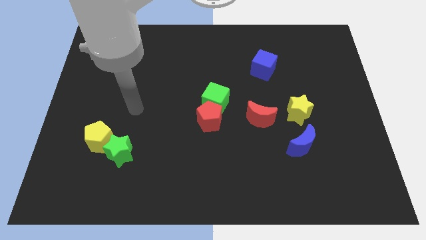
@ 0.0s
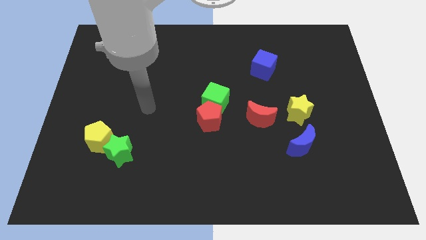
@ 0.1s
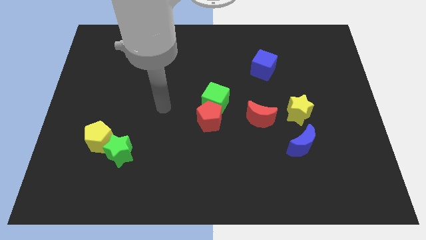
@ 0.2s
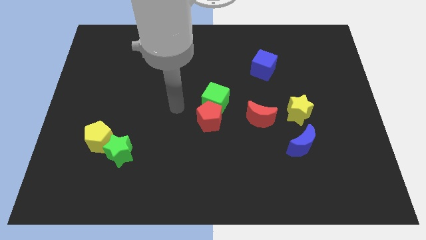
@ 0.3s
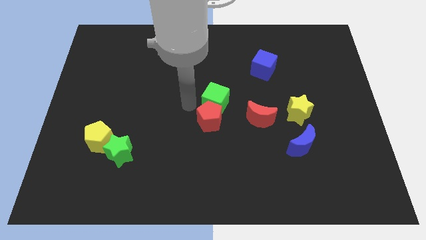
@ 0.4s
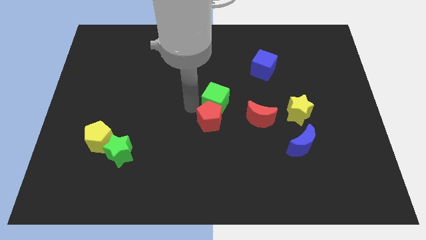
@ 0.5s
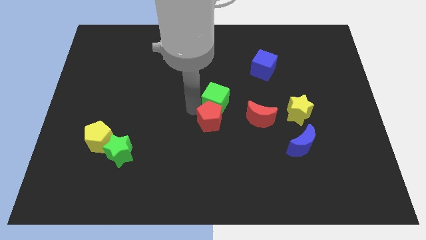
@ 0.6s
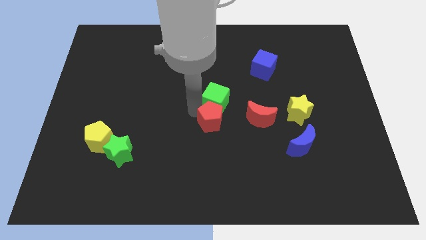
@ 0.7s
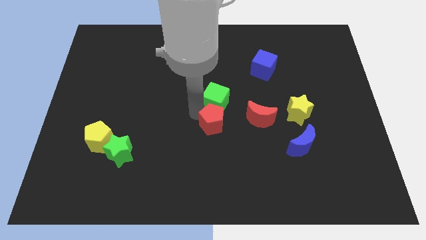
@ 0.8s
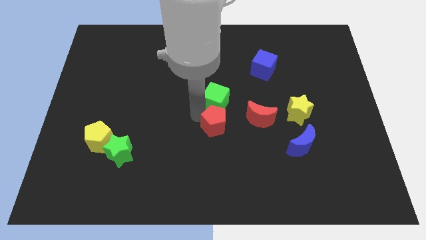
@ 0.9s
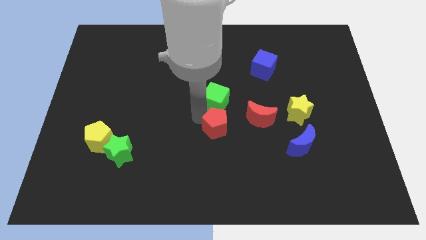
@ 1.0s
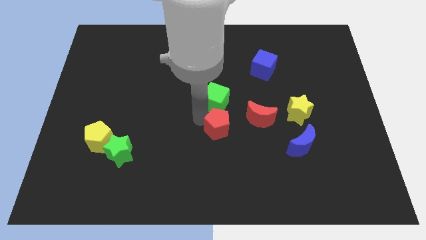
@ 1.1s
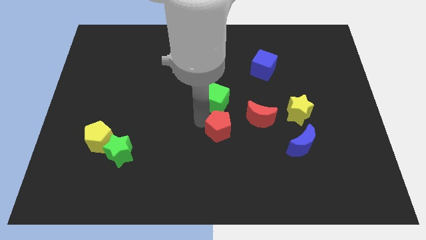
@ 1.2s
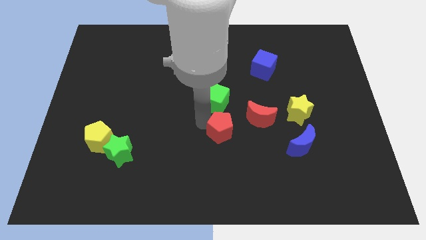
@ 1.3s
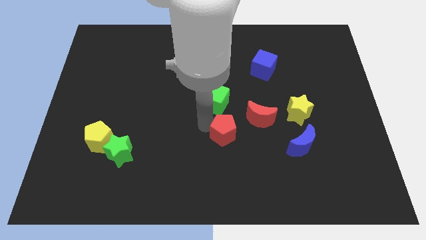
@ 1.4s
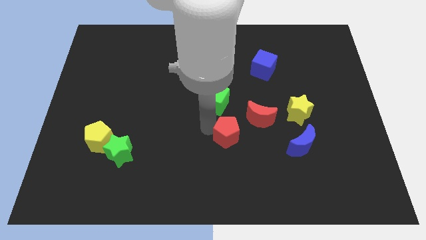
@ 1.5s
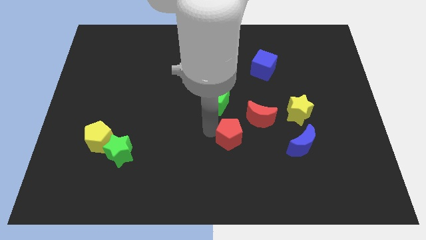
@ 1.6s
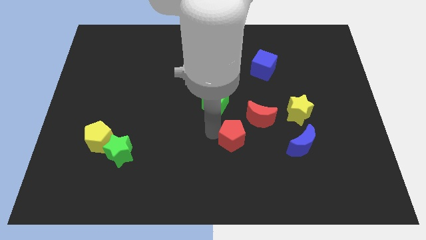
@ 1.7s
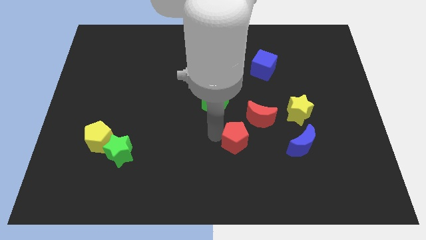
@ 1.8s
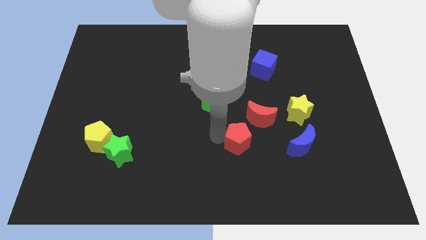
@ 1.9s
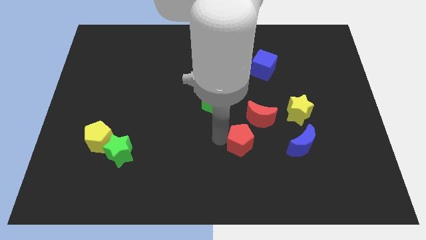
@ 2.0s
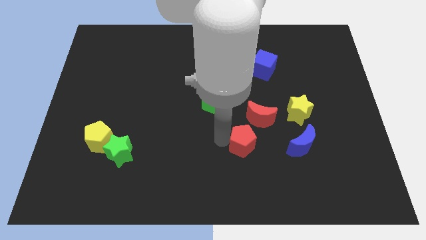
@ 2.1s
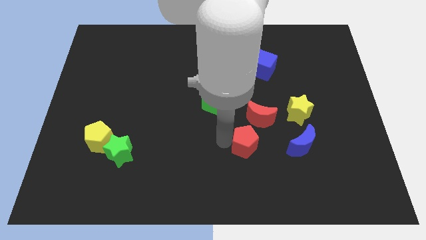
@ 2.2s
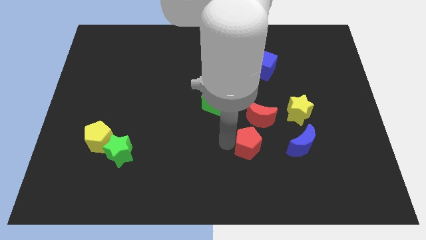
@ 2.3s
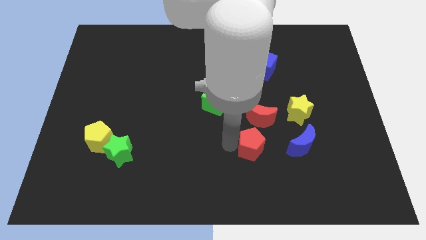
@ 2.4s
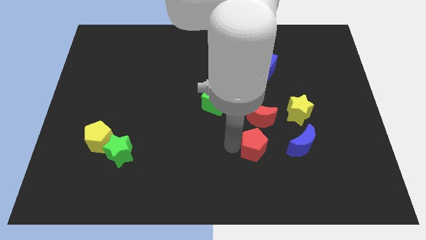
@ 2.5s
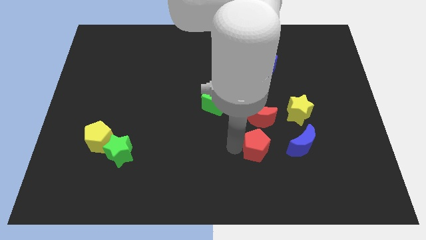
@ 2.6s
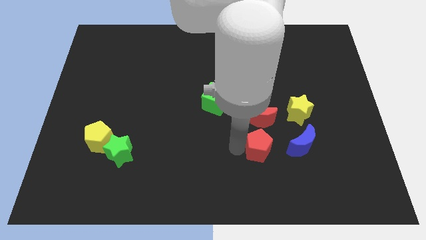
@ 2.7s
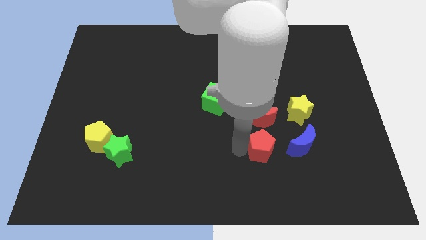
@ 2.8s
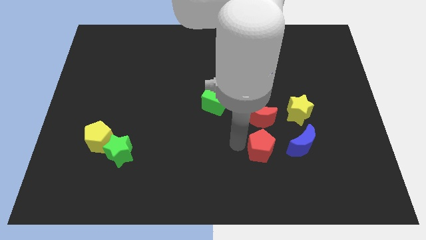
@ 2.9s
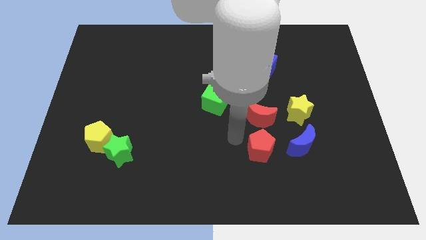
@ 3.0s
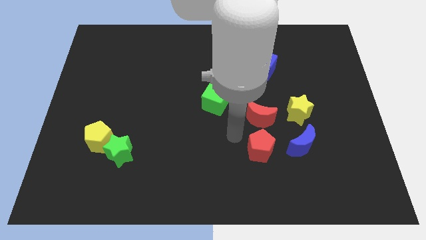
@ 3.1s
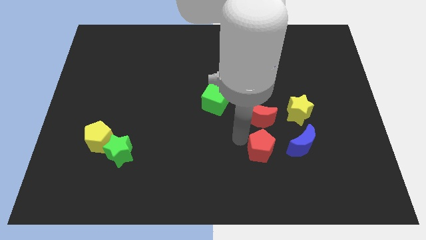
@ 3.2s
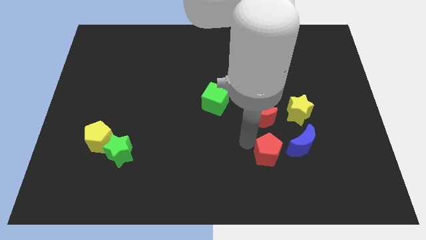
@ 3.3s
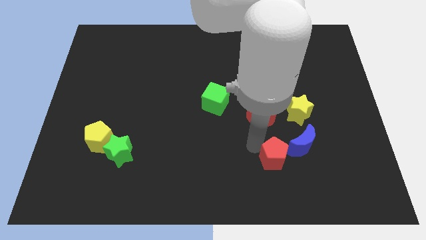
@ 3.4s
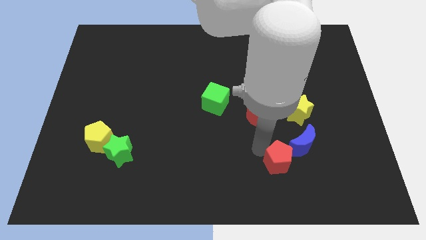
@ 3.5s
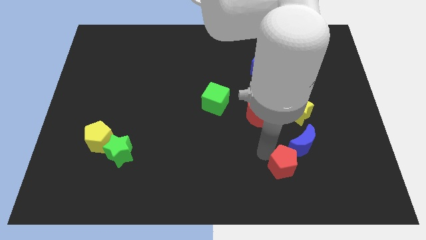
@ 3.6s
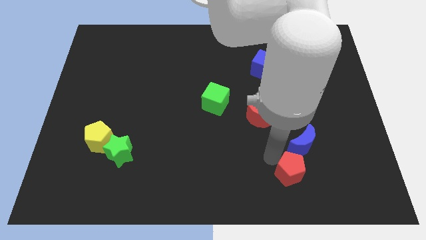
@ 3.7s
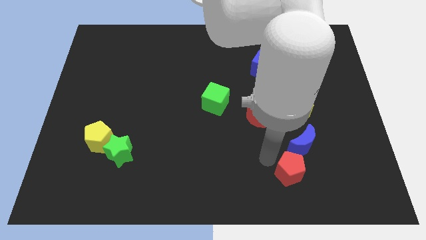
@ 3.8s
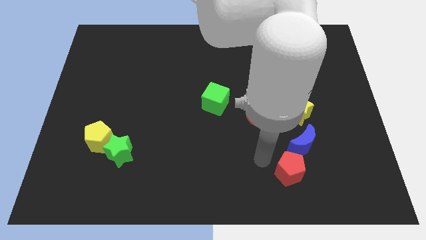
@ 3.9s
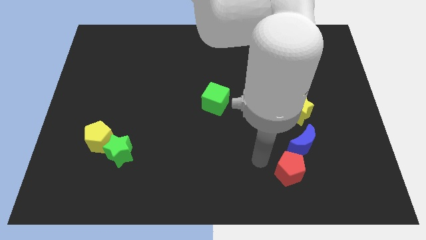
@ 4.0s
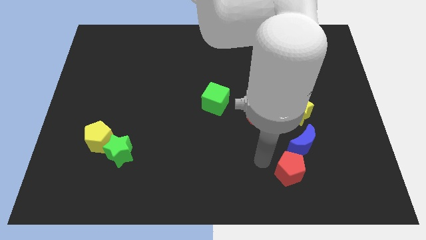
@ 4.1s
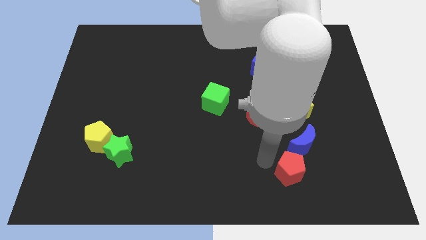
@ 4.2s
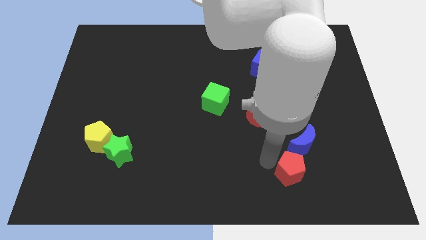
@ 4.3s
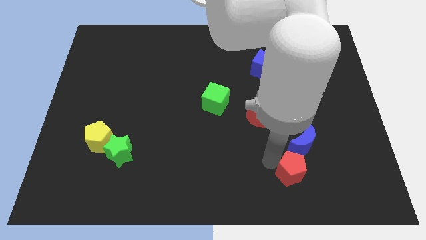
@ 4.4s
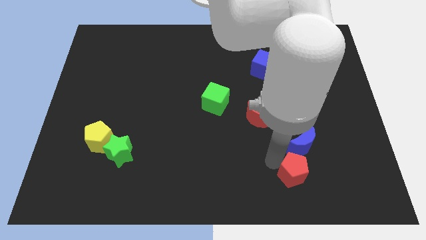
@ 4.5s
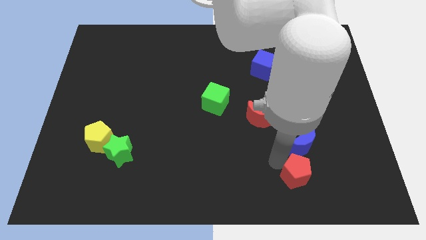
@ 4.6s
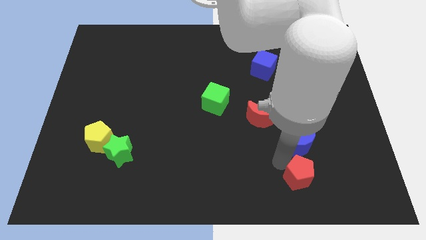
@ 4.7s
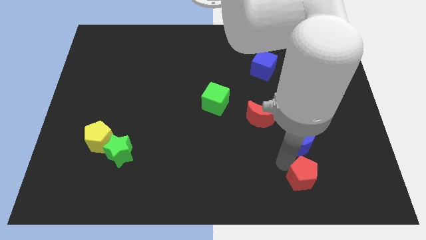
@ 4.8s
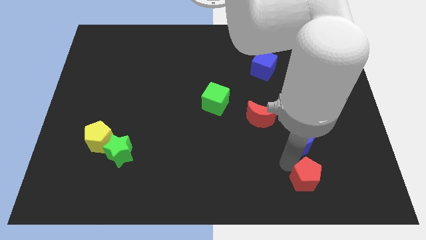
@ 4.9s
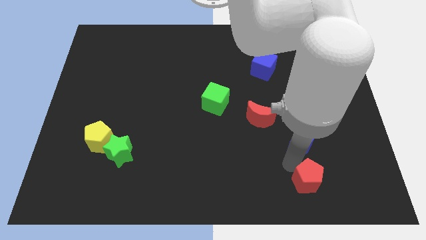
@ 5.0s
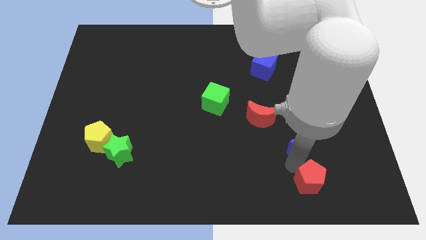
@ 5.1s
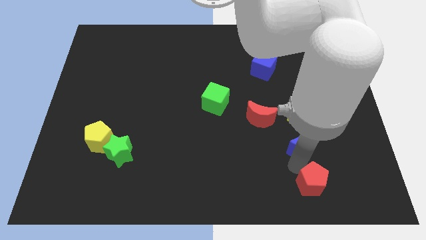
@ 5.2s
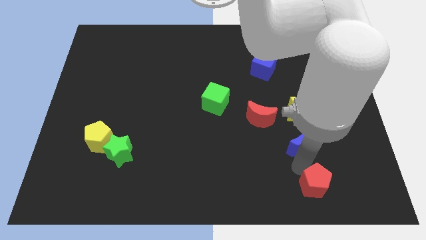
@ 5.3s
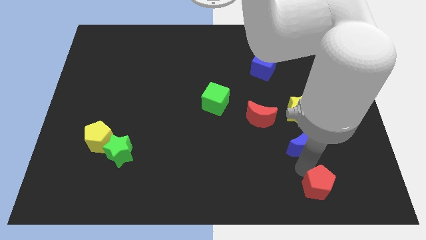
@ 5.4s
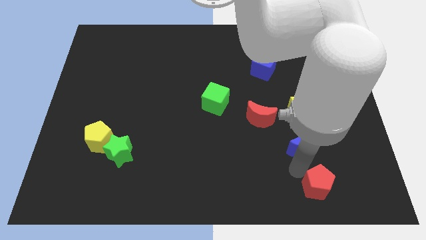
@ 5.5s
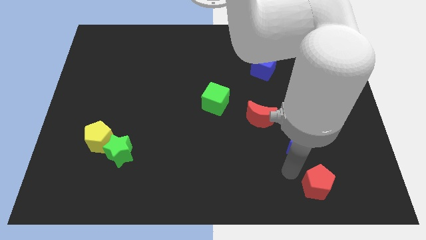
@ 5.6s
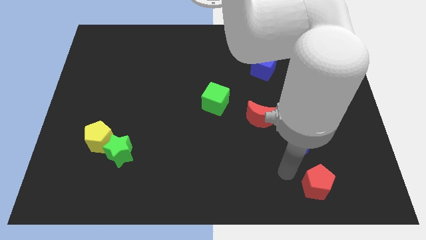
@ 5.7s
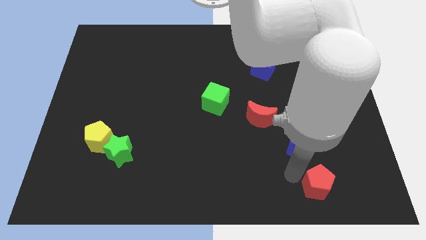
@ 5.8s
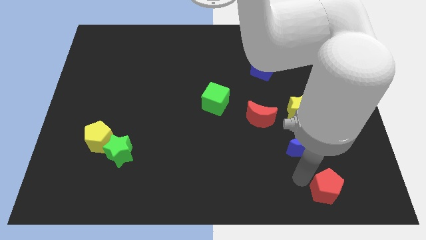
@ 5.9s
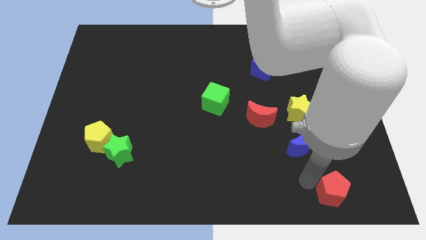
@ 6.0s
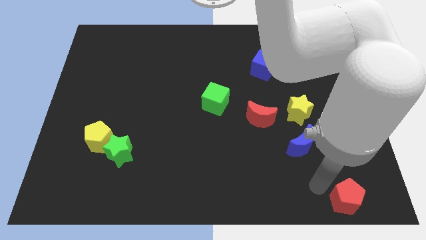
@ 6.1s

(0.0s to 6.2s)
push the red pentagon to the lower right corner
